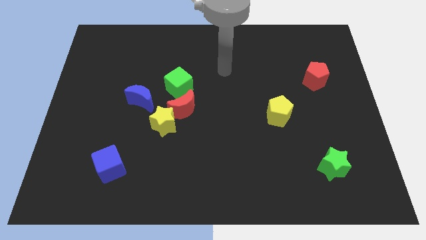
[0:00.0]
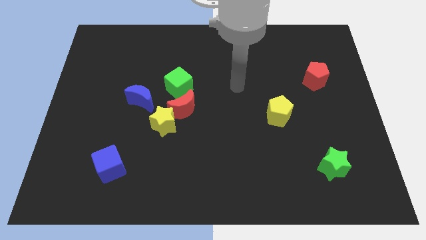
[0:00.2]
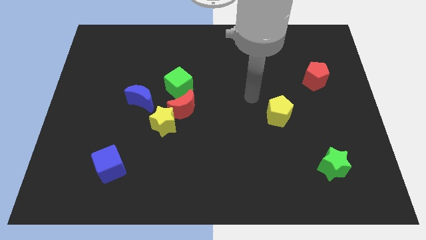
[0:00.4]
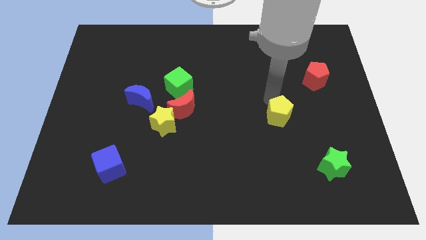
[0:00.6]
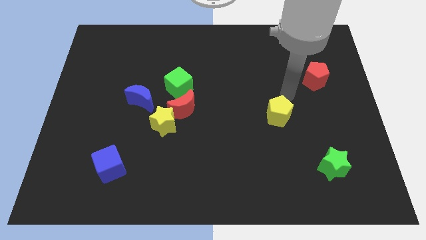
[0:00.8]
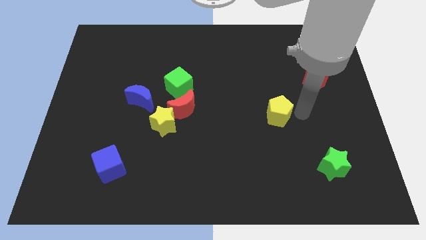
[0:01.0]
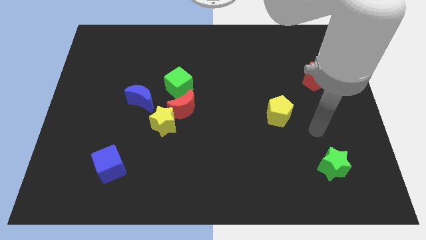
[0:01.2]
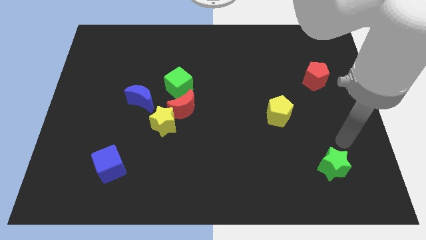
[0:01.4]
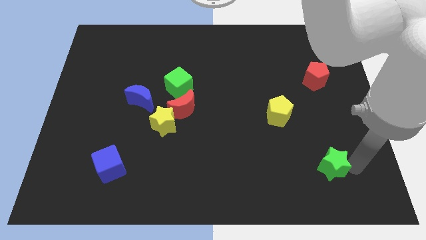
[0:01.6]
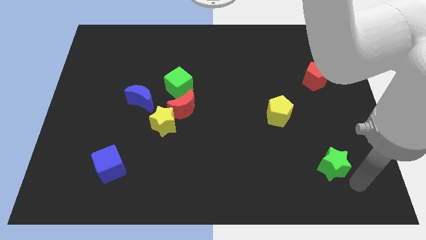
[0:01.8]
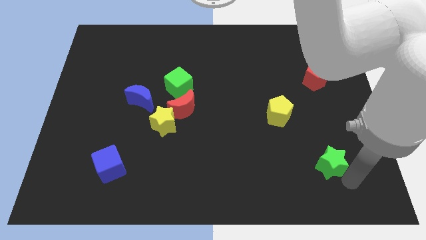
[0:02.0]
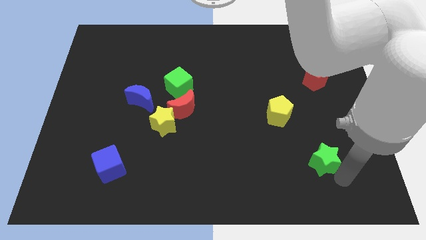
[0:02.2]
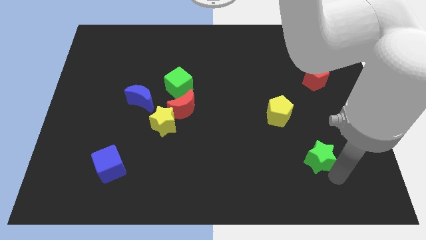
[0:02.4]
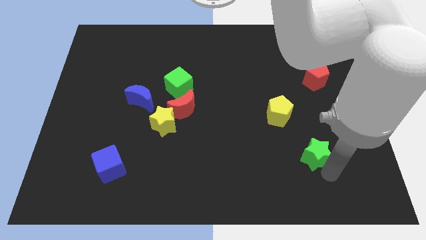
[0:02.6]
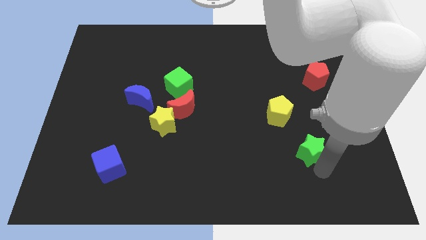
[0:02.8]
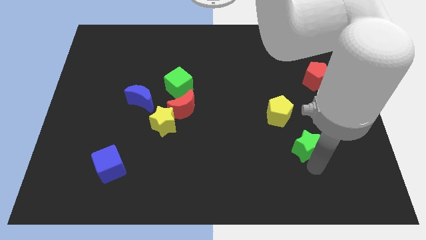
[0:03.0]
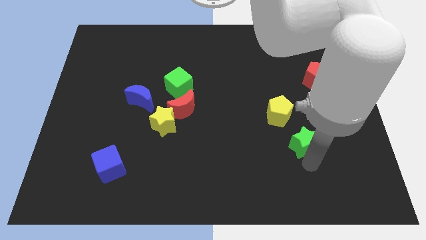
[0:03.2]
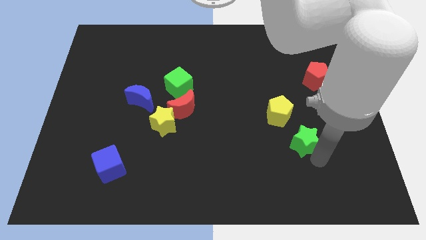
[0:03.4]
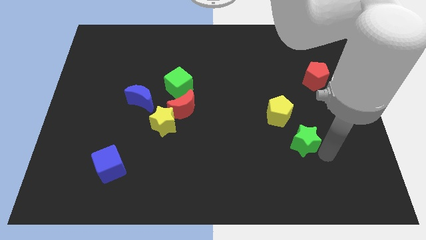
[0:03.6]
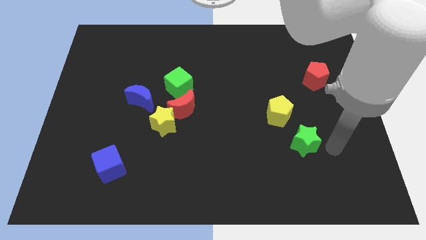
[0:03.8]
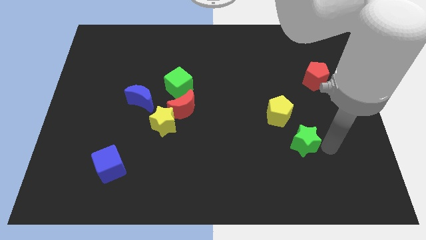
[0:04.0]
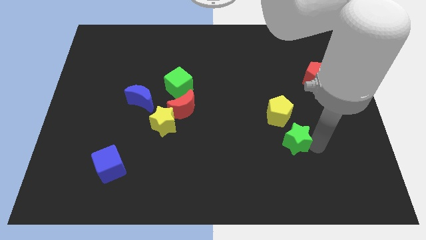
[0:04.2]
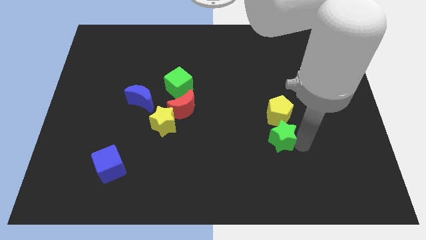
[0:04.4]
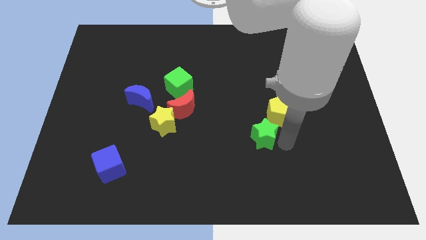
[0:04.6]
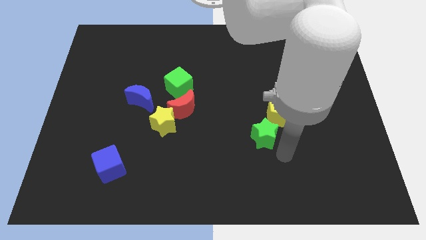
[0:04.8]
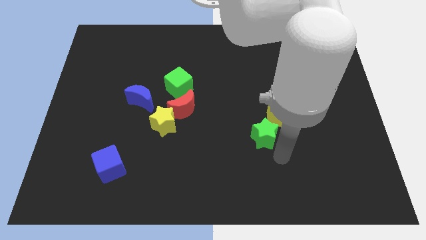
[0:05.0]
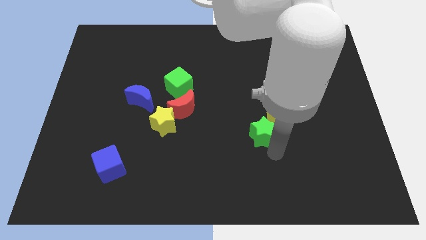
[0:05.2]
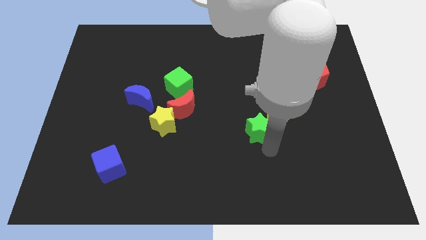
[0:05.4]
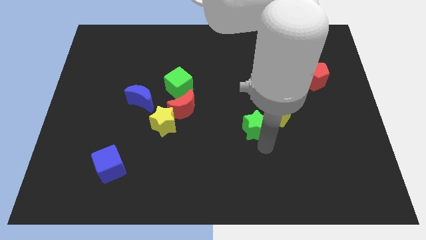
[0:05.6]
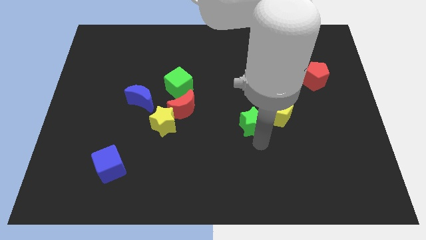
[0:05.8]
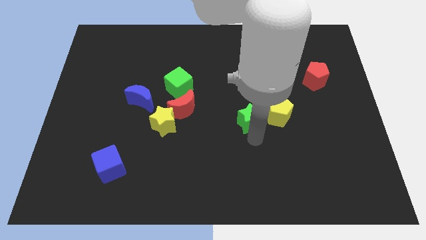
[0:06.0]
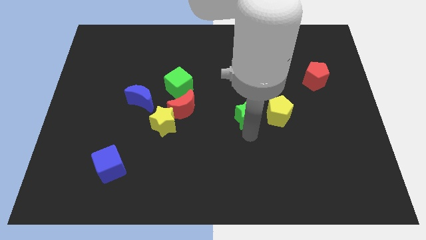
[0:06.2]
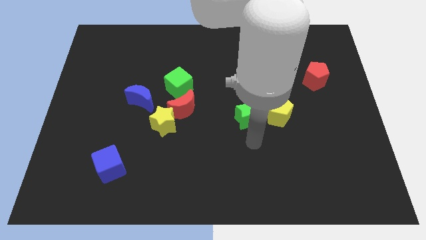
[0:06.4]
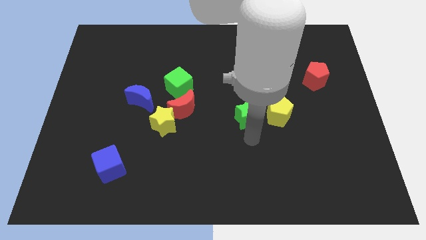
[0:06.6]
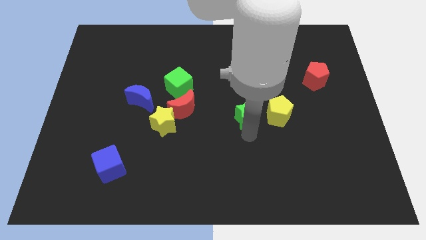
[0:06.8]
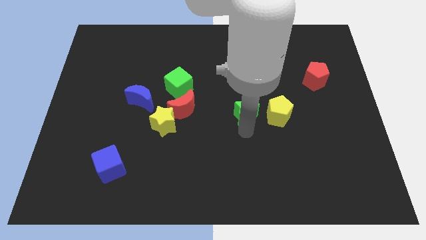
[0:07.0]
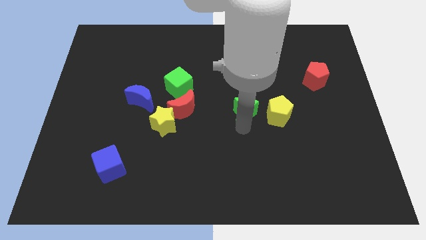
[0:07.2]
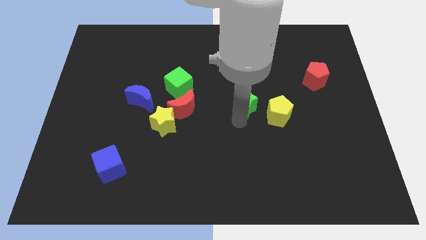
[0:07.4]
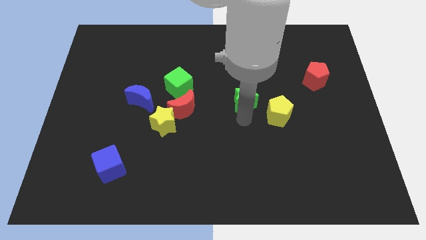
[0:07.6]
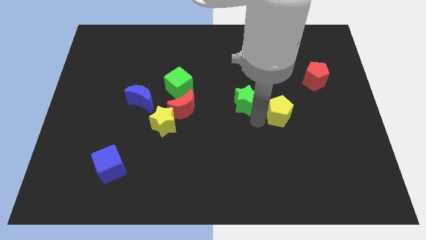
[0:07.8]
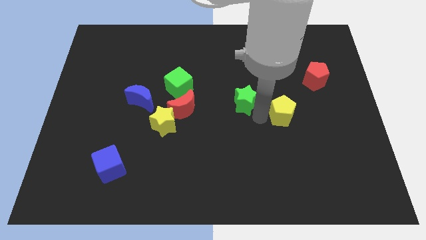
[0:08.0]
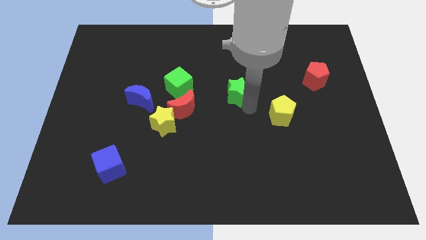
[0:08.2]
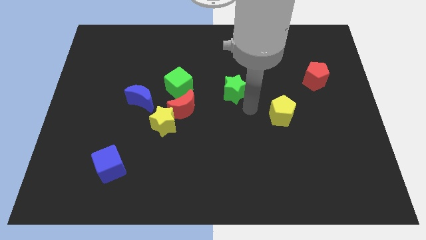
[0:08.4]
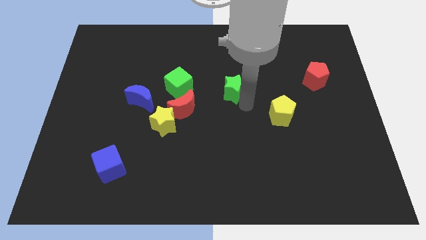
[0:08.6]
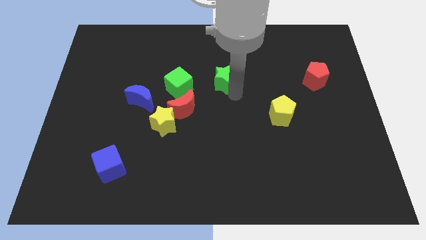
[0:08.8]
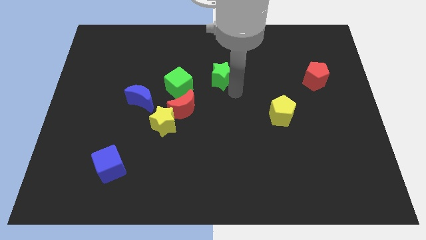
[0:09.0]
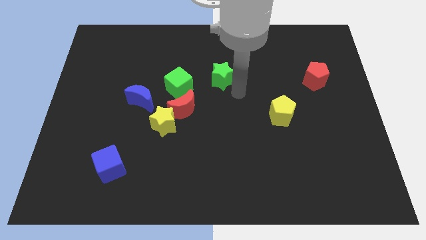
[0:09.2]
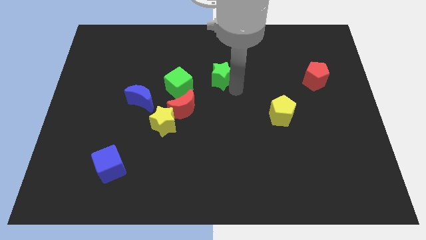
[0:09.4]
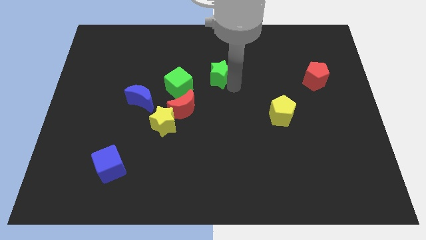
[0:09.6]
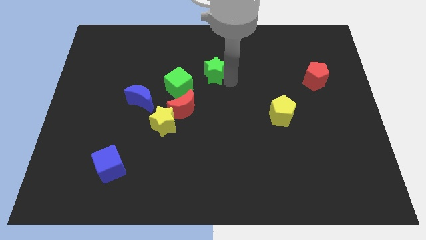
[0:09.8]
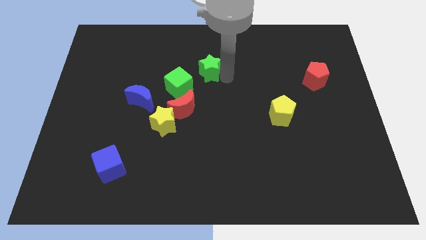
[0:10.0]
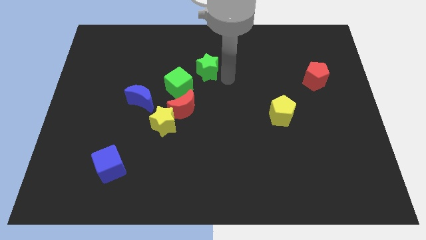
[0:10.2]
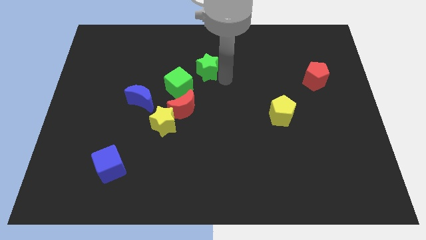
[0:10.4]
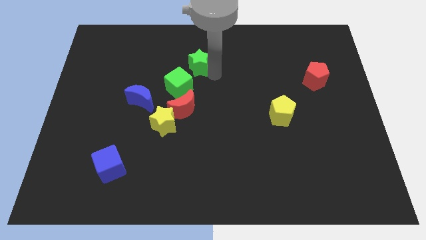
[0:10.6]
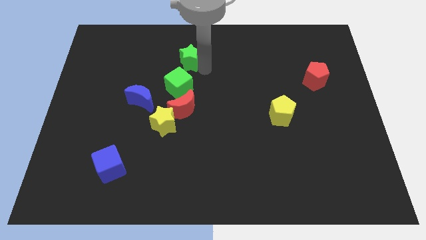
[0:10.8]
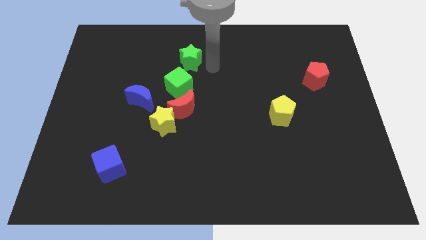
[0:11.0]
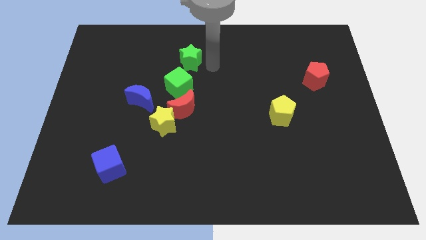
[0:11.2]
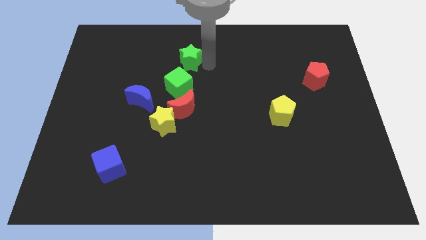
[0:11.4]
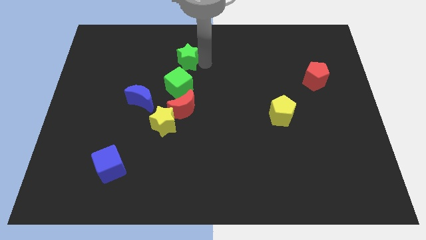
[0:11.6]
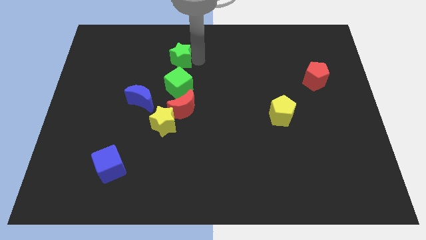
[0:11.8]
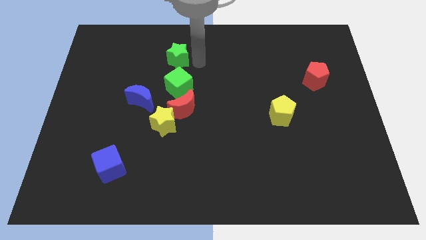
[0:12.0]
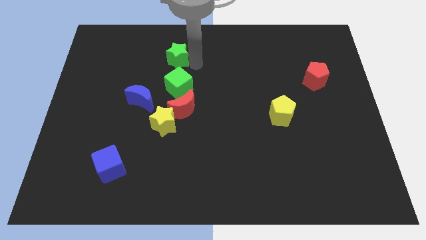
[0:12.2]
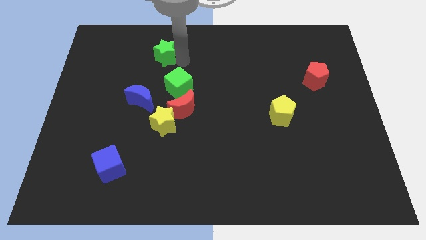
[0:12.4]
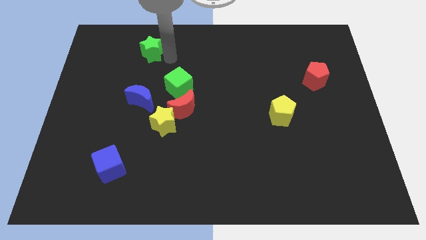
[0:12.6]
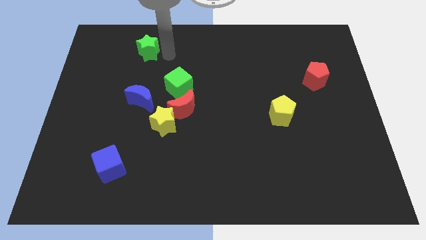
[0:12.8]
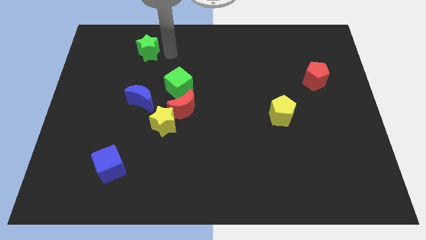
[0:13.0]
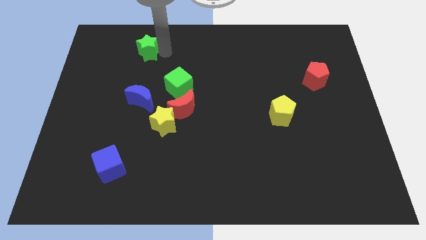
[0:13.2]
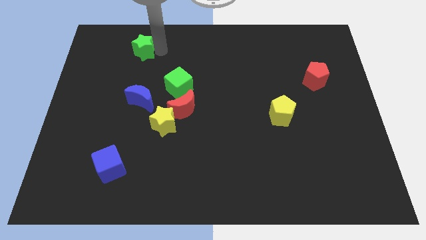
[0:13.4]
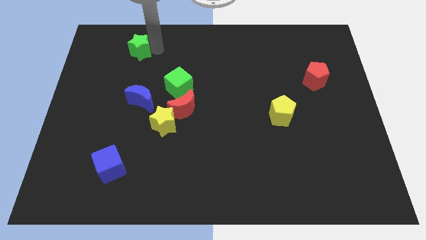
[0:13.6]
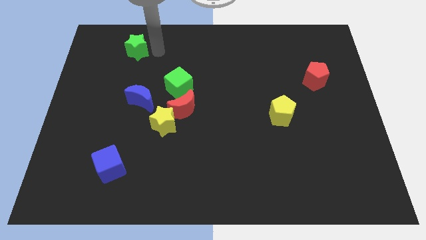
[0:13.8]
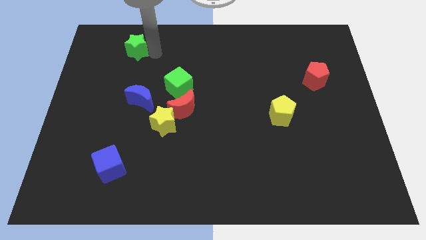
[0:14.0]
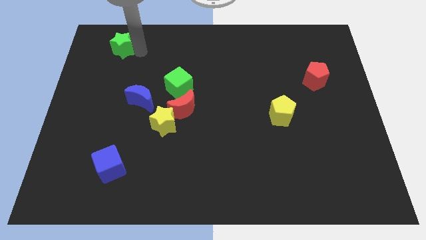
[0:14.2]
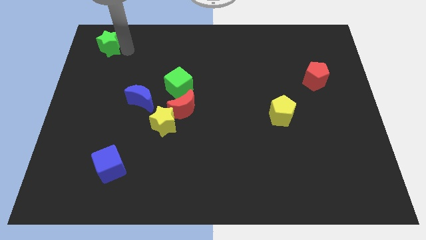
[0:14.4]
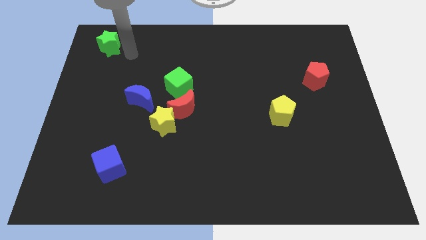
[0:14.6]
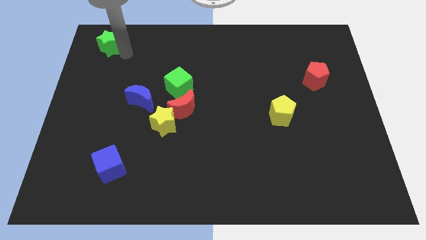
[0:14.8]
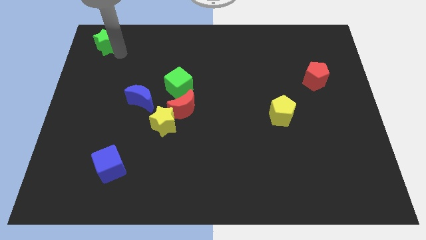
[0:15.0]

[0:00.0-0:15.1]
slide the green star to the upper left corner
